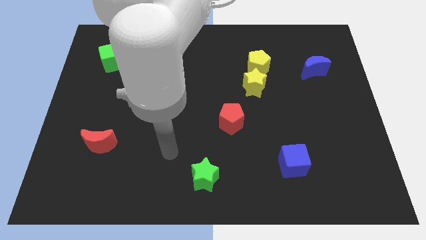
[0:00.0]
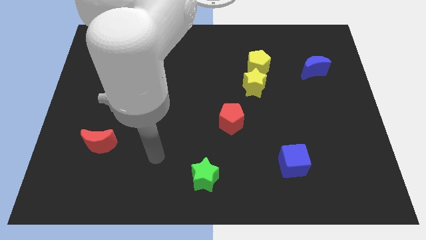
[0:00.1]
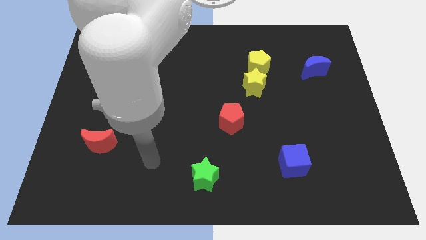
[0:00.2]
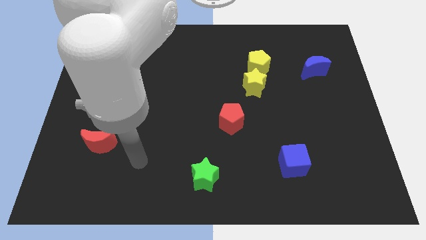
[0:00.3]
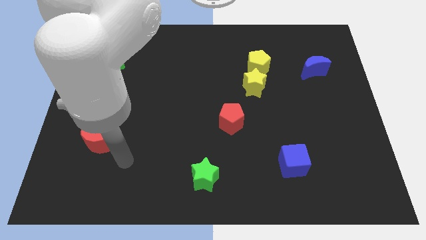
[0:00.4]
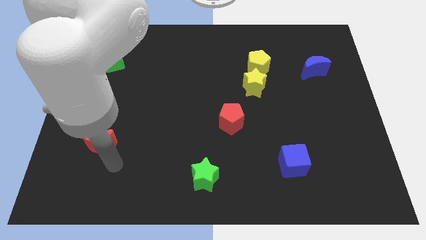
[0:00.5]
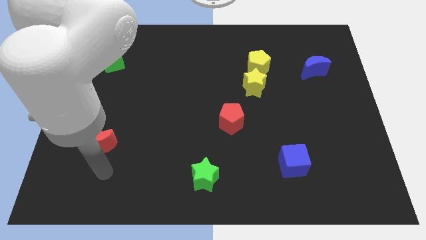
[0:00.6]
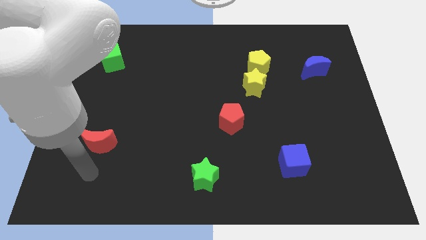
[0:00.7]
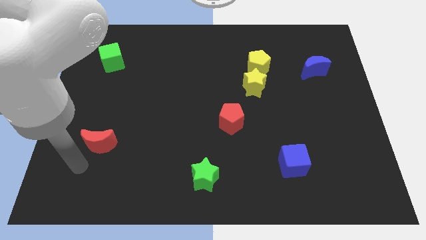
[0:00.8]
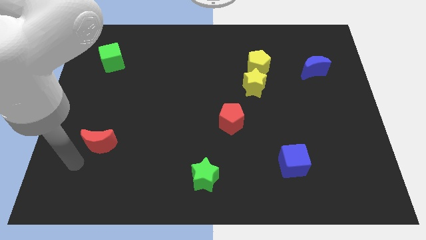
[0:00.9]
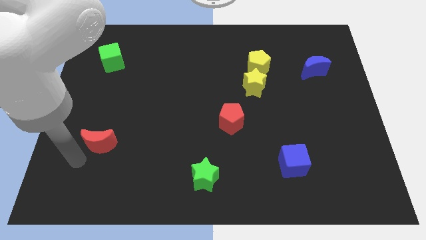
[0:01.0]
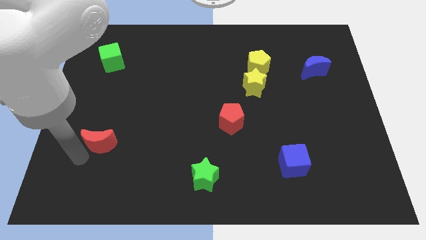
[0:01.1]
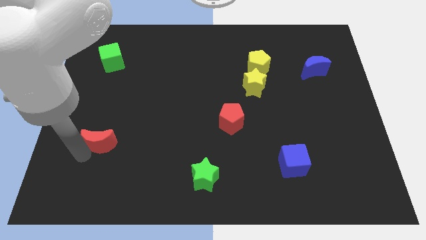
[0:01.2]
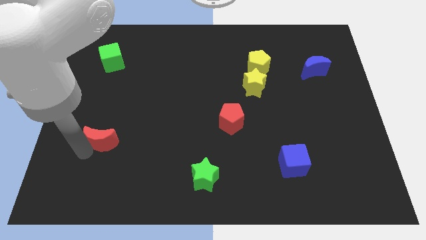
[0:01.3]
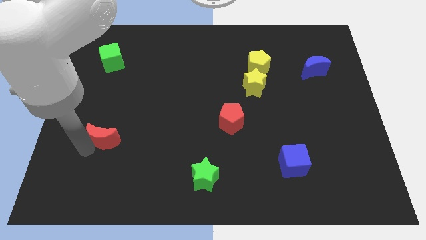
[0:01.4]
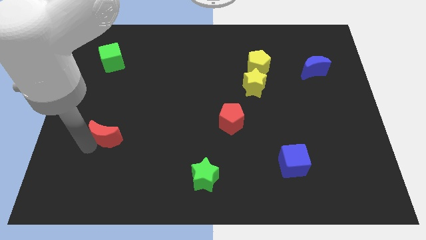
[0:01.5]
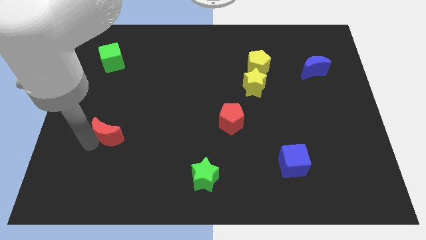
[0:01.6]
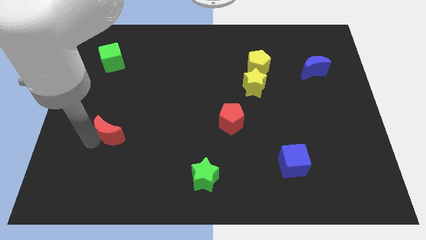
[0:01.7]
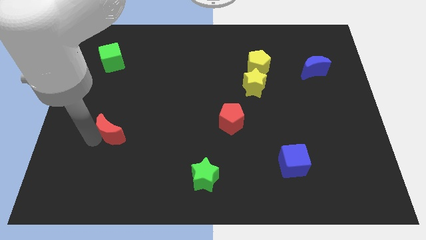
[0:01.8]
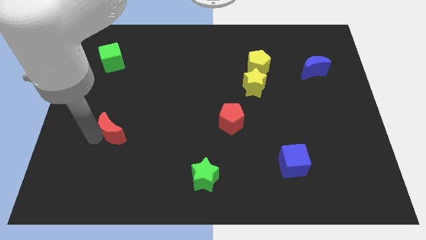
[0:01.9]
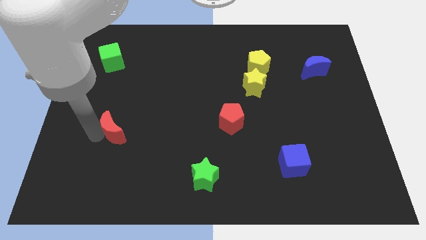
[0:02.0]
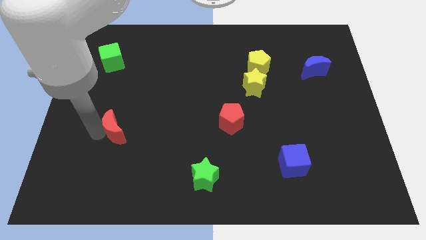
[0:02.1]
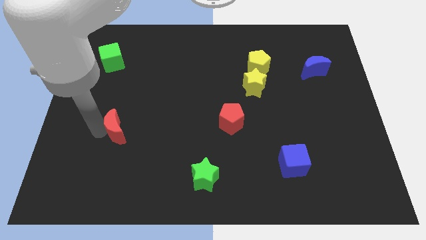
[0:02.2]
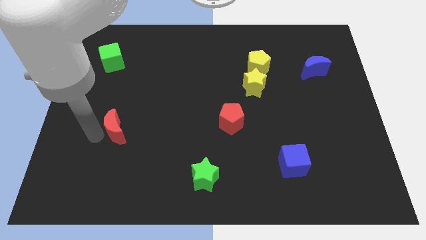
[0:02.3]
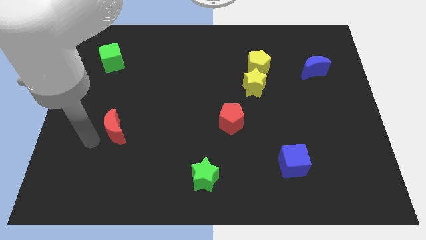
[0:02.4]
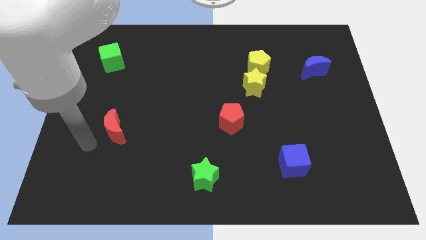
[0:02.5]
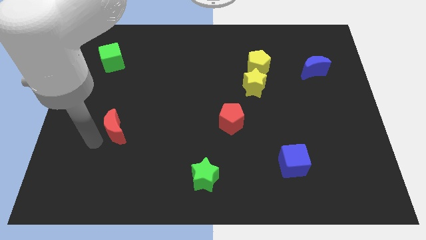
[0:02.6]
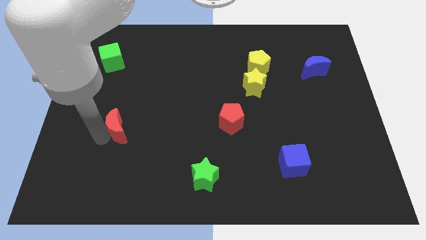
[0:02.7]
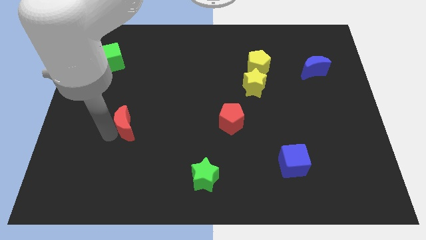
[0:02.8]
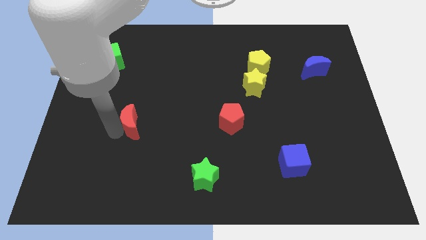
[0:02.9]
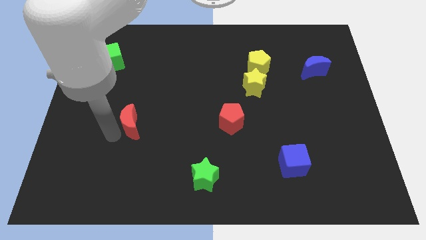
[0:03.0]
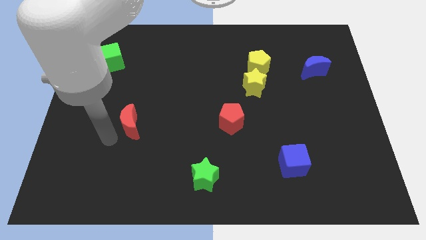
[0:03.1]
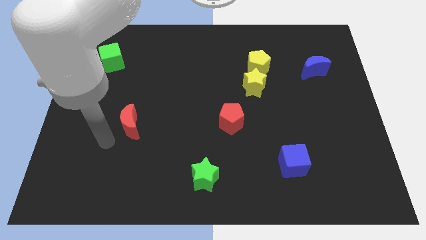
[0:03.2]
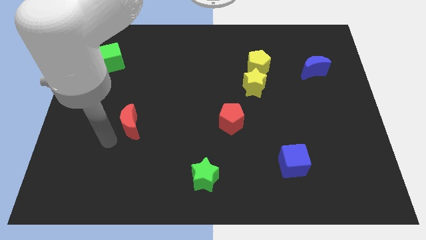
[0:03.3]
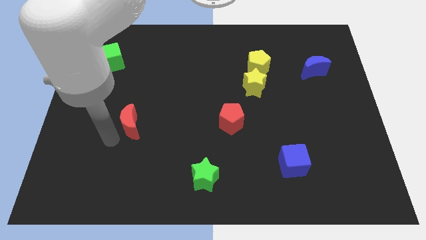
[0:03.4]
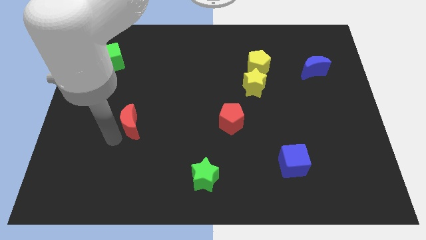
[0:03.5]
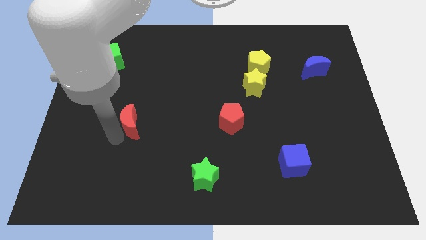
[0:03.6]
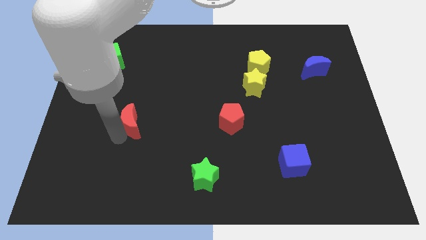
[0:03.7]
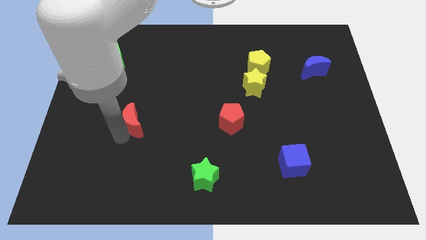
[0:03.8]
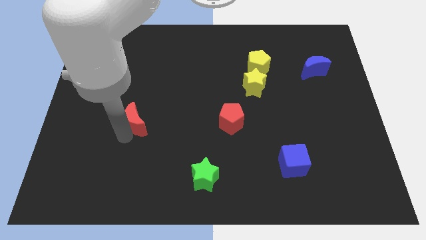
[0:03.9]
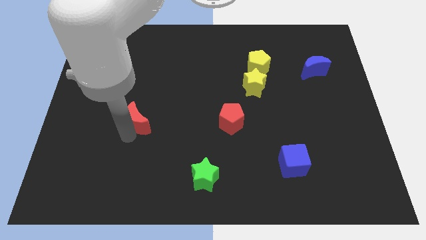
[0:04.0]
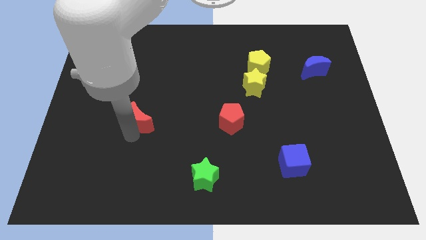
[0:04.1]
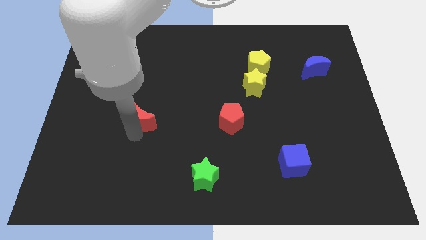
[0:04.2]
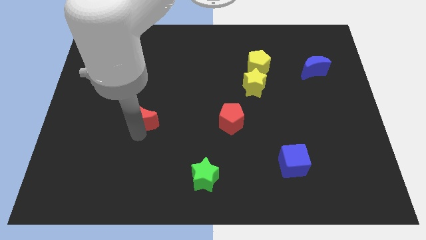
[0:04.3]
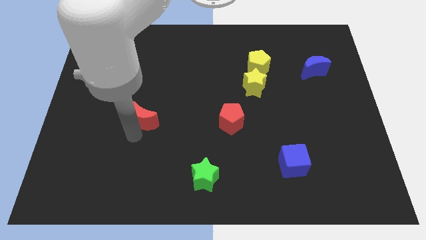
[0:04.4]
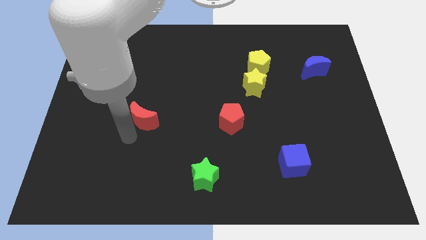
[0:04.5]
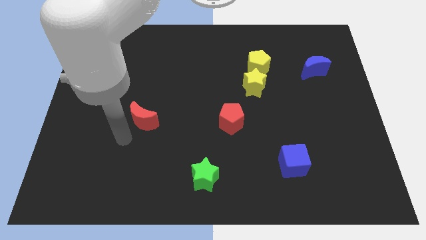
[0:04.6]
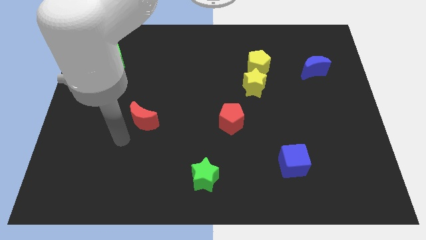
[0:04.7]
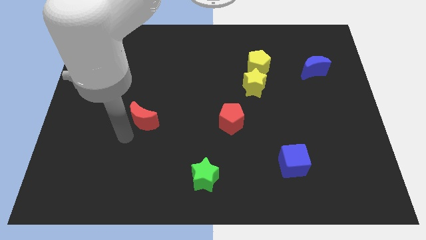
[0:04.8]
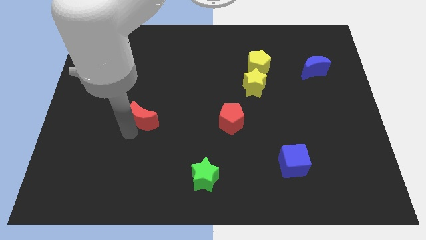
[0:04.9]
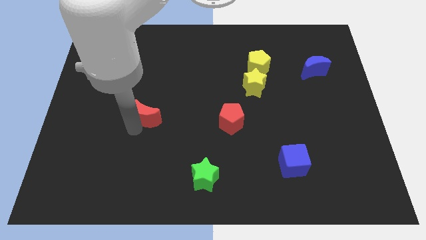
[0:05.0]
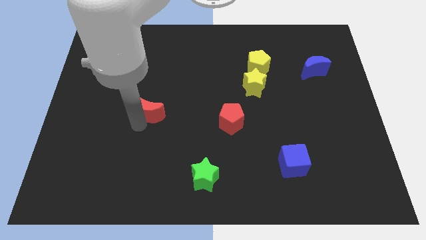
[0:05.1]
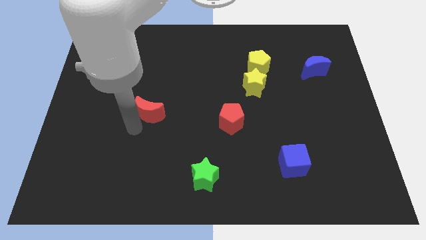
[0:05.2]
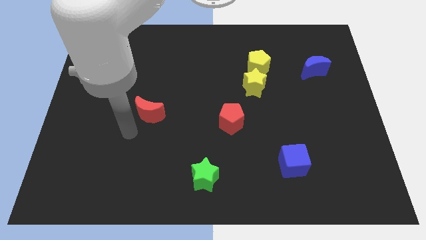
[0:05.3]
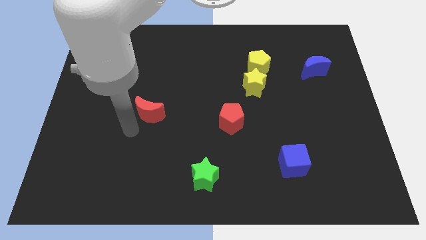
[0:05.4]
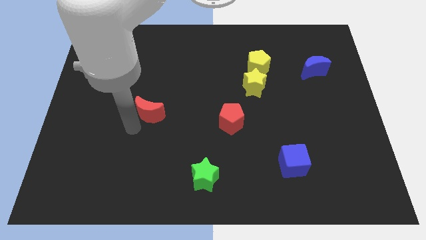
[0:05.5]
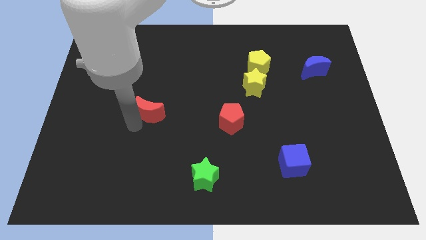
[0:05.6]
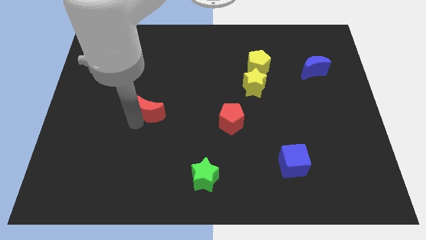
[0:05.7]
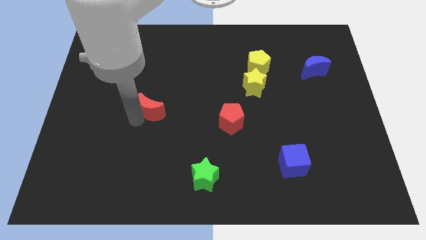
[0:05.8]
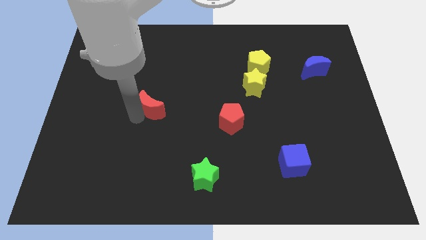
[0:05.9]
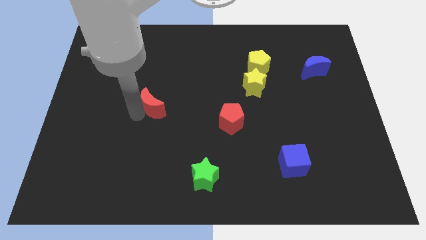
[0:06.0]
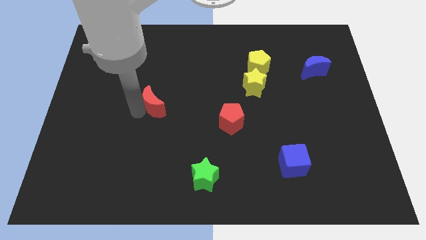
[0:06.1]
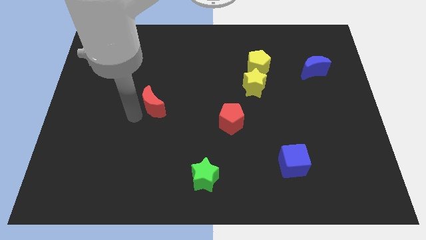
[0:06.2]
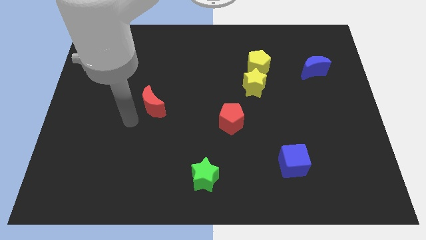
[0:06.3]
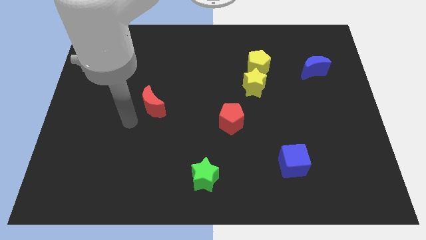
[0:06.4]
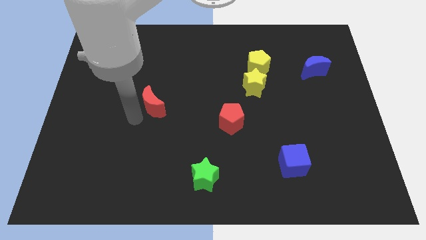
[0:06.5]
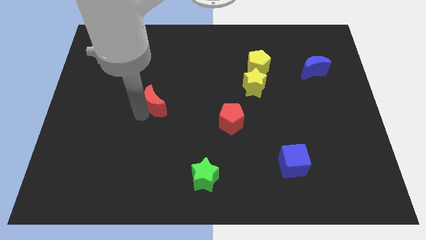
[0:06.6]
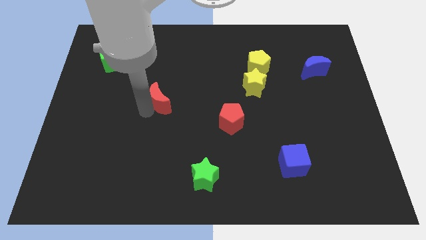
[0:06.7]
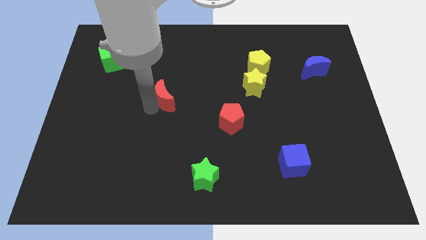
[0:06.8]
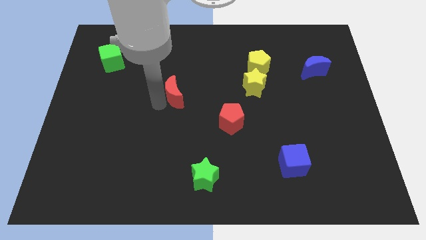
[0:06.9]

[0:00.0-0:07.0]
slide the red moon up and then right

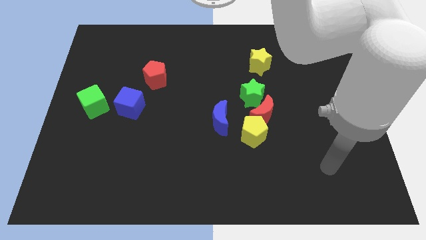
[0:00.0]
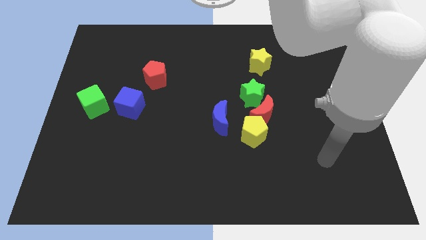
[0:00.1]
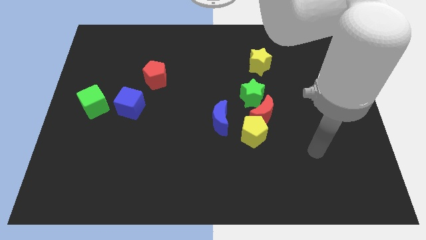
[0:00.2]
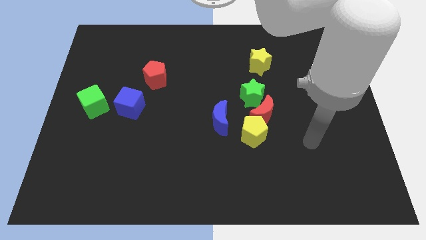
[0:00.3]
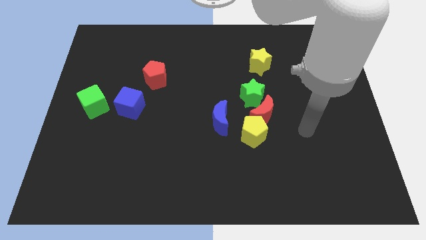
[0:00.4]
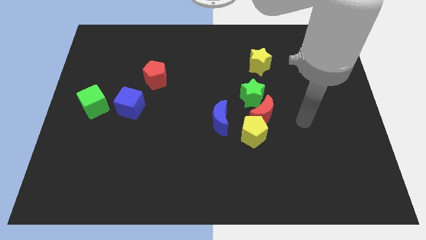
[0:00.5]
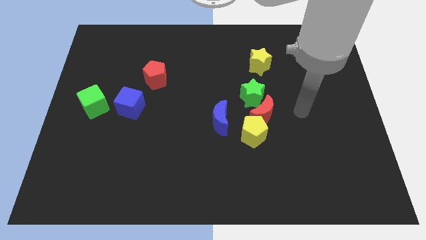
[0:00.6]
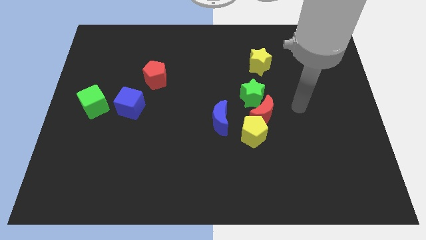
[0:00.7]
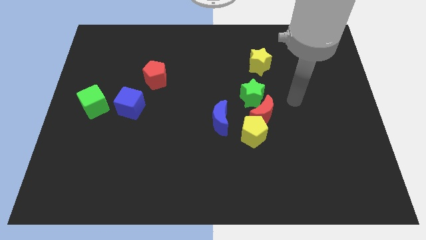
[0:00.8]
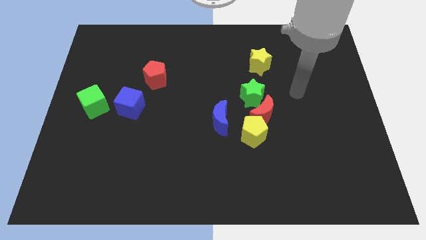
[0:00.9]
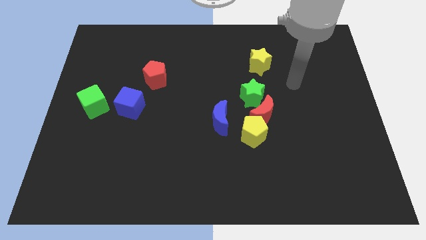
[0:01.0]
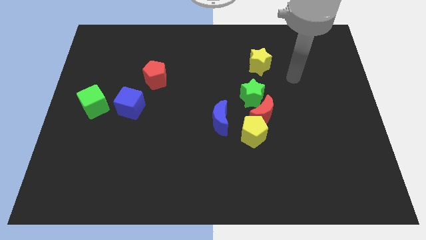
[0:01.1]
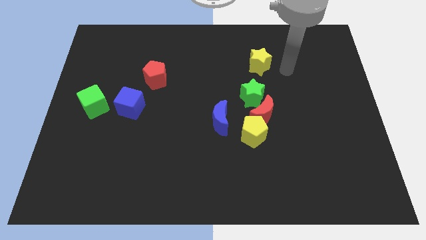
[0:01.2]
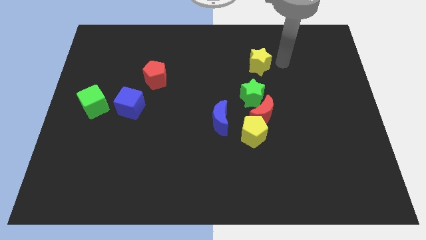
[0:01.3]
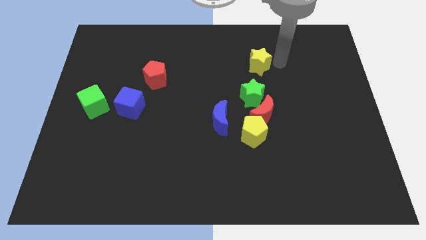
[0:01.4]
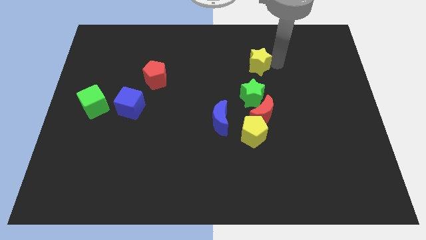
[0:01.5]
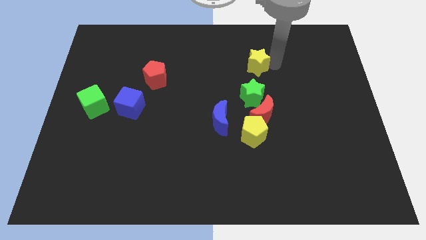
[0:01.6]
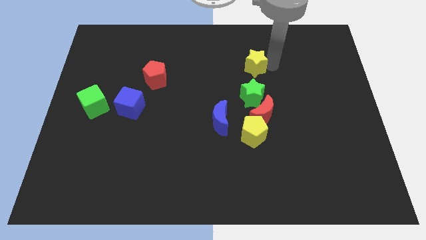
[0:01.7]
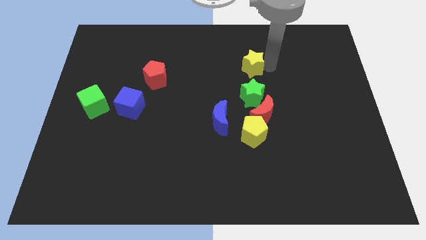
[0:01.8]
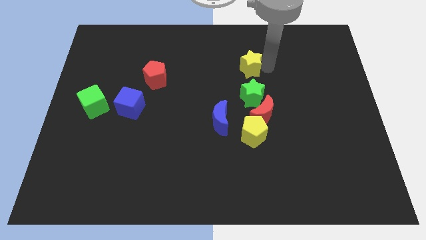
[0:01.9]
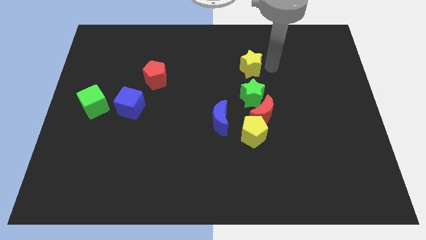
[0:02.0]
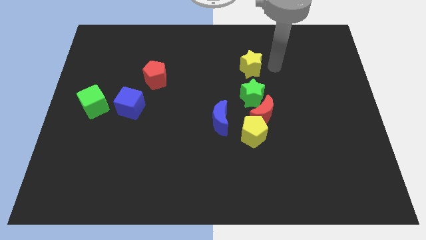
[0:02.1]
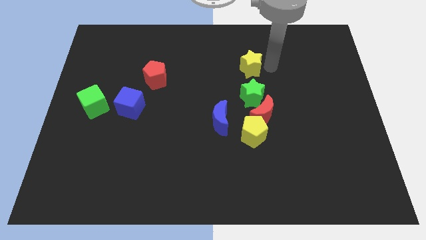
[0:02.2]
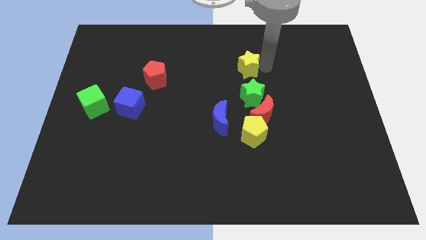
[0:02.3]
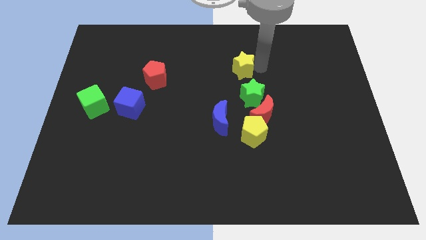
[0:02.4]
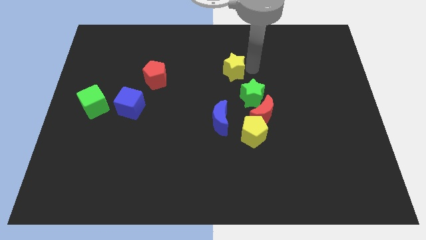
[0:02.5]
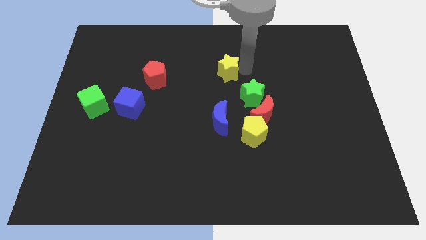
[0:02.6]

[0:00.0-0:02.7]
slightly slide the yellow star to the left
